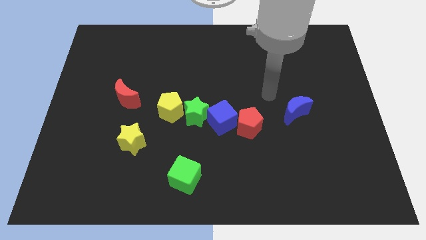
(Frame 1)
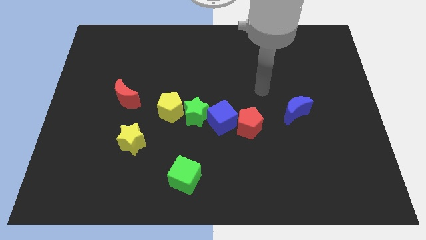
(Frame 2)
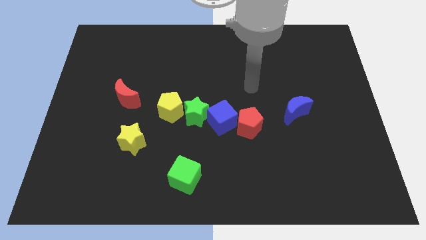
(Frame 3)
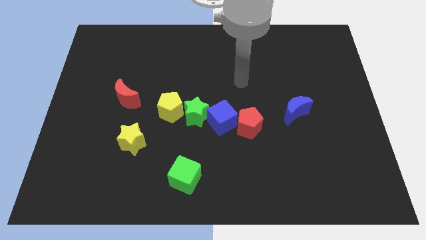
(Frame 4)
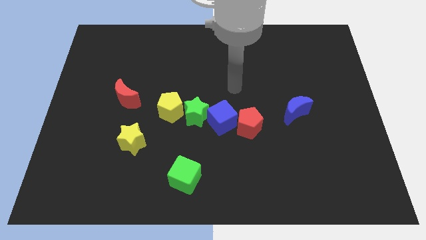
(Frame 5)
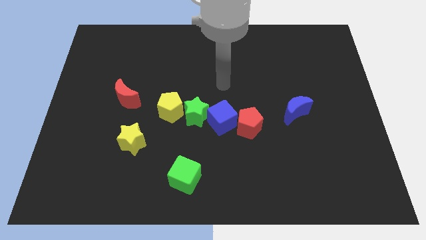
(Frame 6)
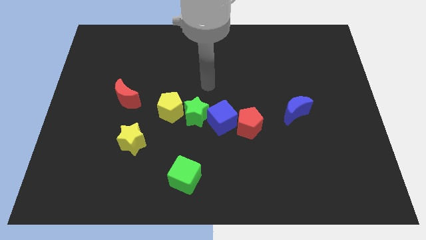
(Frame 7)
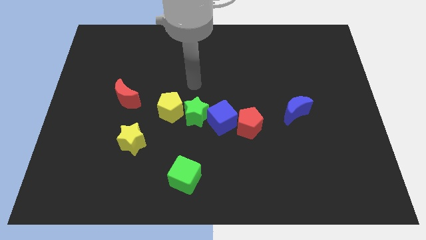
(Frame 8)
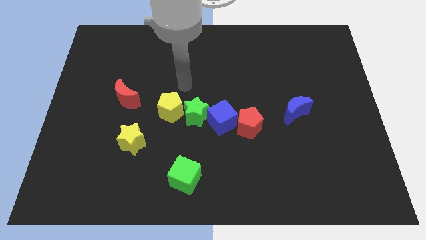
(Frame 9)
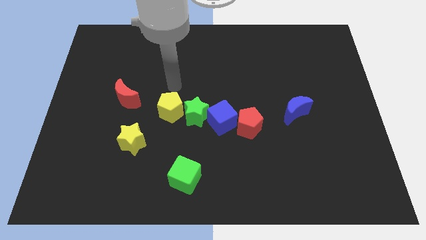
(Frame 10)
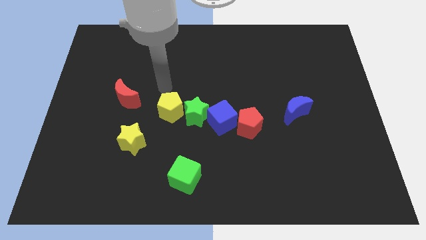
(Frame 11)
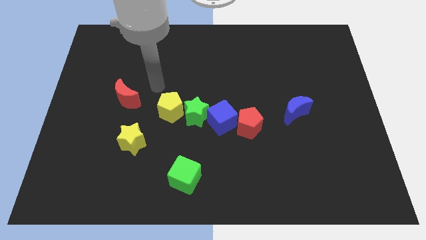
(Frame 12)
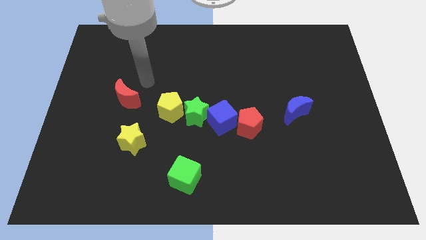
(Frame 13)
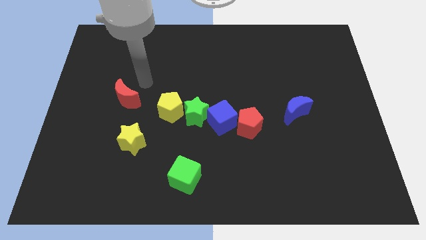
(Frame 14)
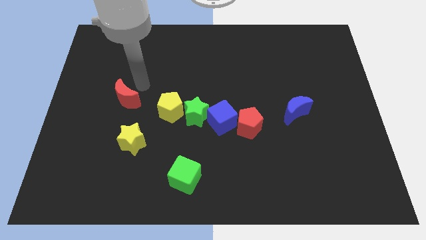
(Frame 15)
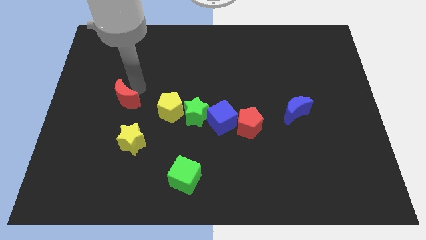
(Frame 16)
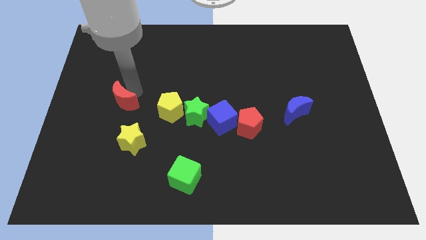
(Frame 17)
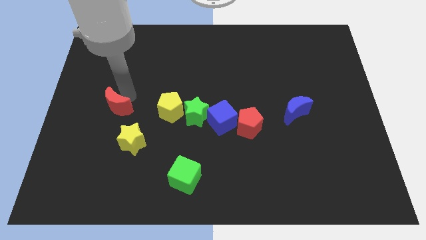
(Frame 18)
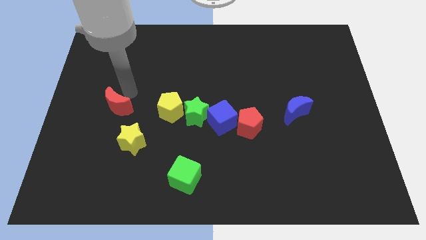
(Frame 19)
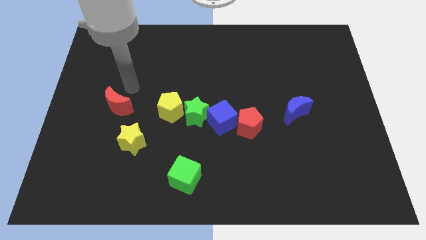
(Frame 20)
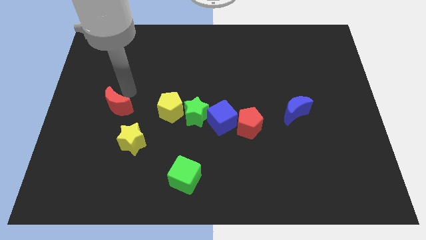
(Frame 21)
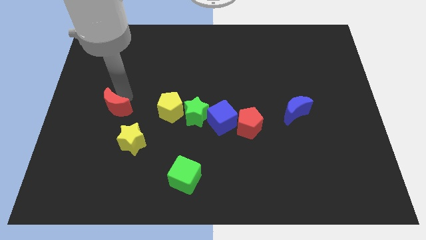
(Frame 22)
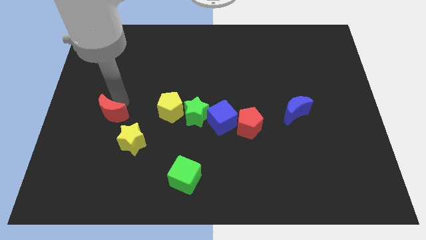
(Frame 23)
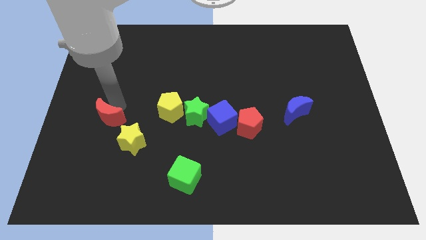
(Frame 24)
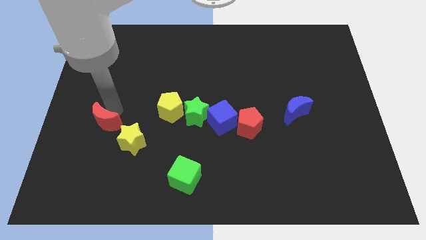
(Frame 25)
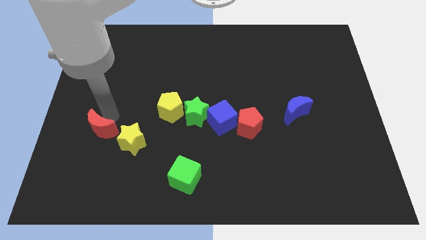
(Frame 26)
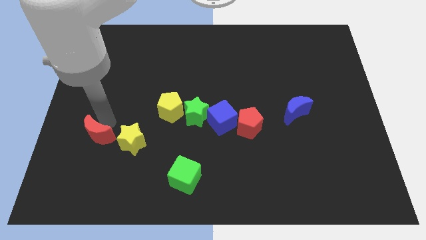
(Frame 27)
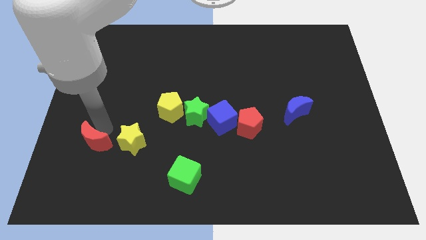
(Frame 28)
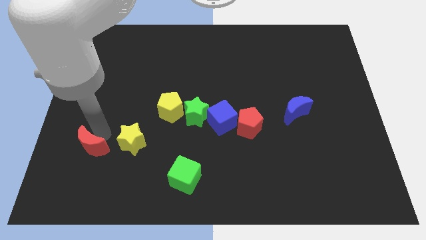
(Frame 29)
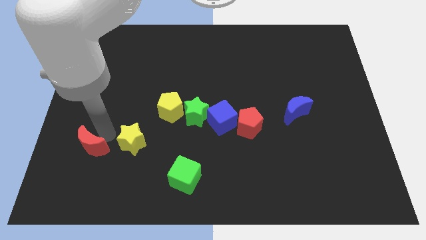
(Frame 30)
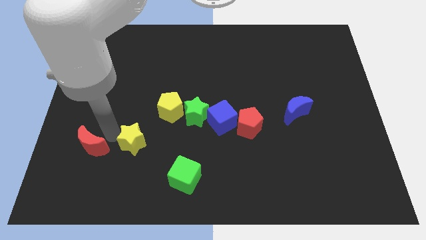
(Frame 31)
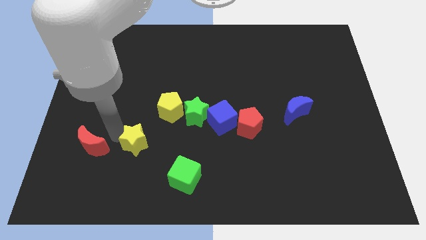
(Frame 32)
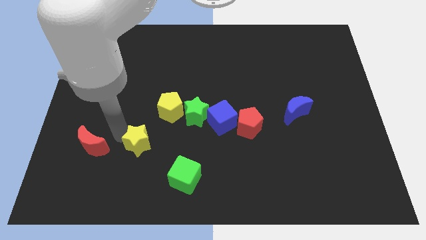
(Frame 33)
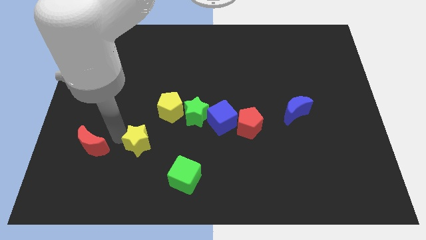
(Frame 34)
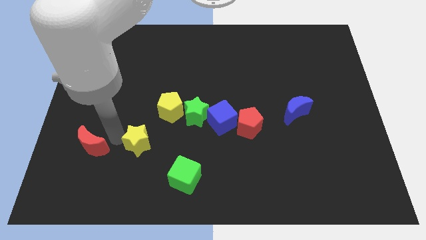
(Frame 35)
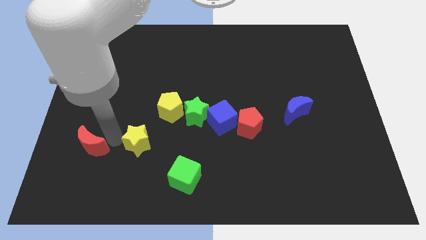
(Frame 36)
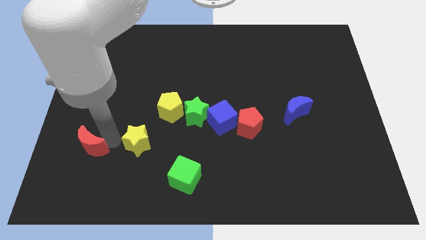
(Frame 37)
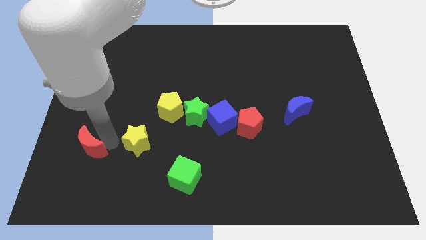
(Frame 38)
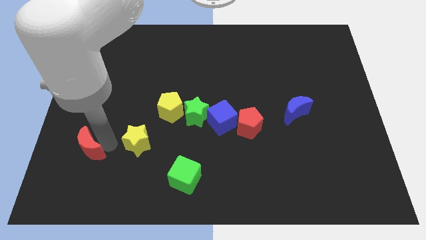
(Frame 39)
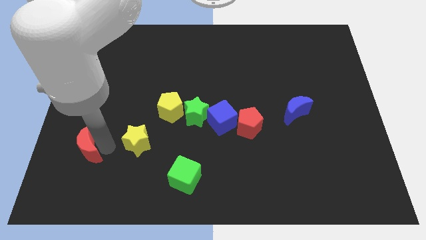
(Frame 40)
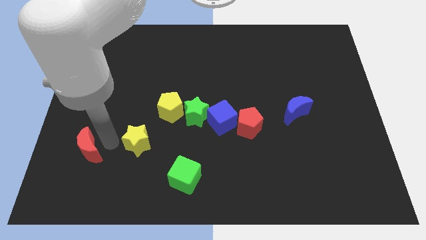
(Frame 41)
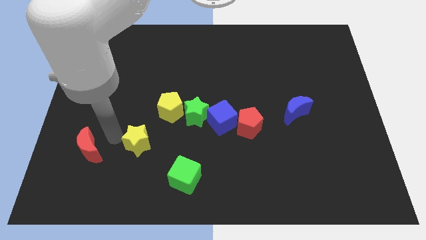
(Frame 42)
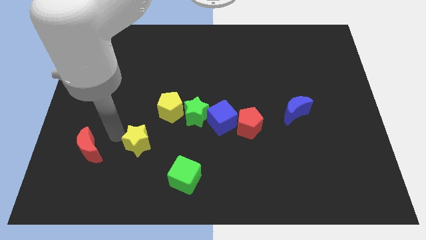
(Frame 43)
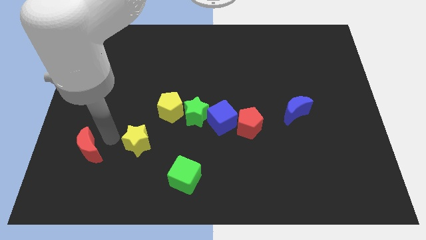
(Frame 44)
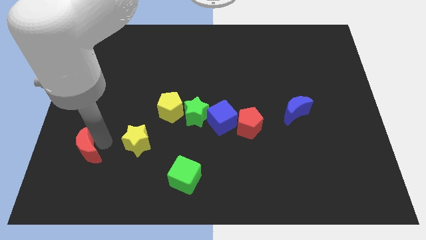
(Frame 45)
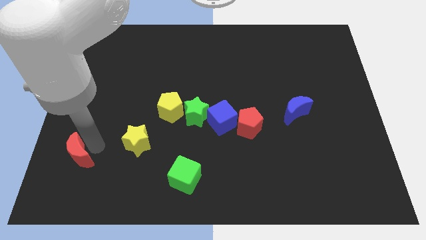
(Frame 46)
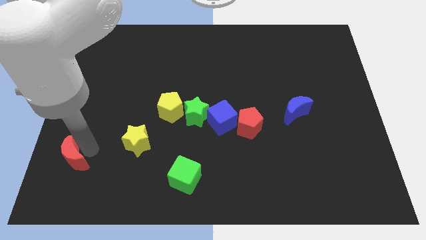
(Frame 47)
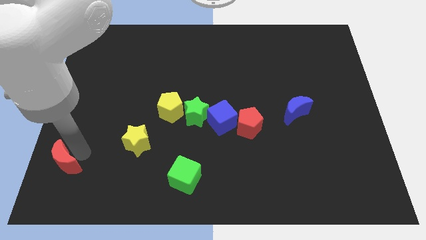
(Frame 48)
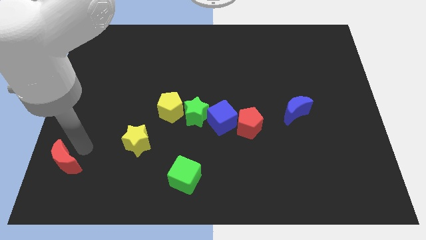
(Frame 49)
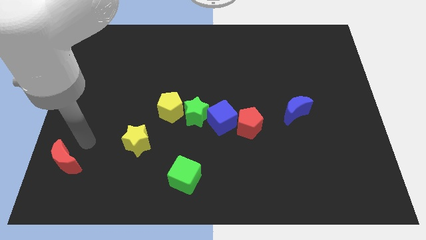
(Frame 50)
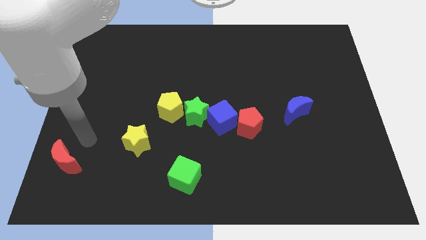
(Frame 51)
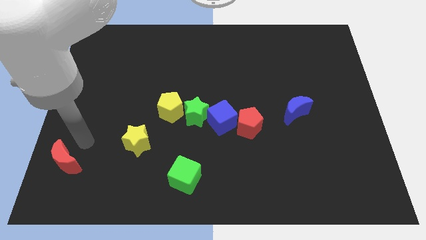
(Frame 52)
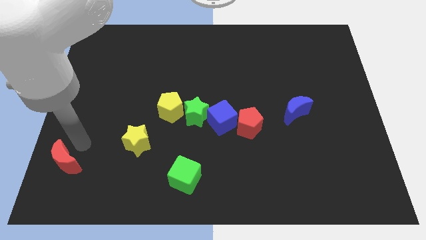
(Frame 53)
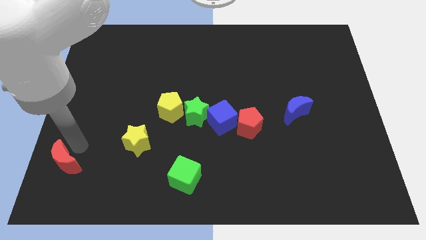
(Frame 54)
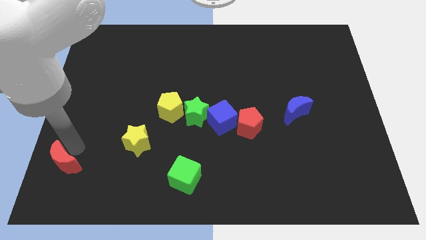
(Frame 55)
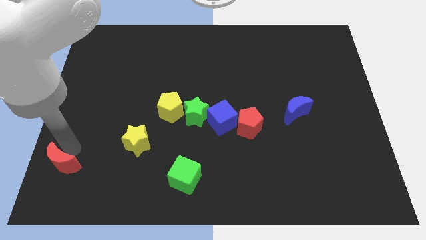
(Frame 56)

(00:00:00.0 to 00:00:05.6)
slide the red moon to the lower left corner

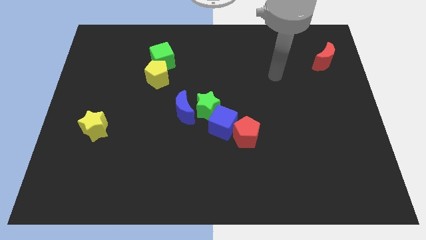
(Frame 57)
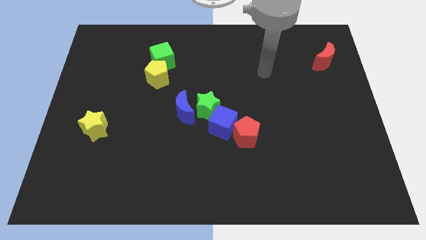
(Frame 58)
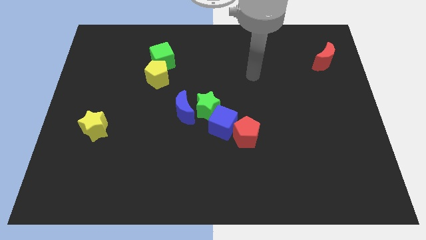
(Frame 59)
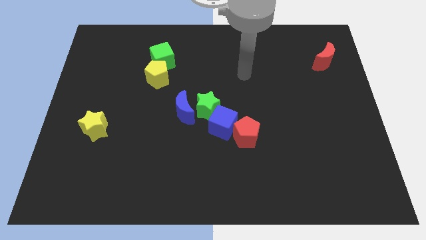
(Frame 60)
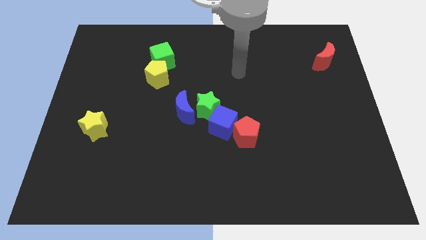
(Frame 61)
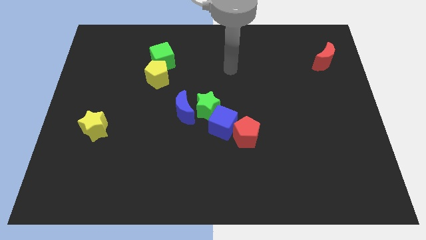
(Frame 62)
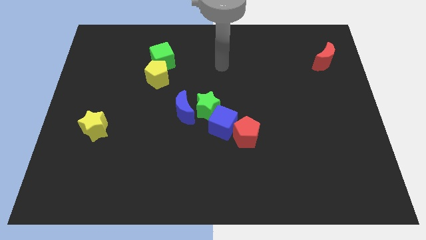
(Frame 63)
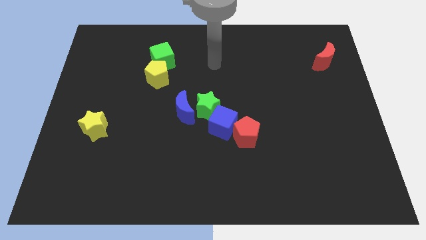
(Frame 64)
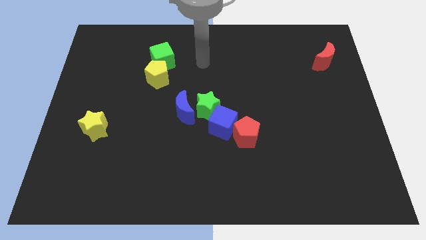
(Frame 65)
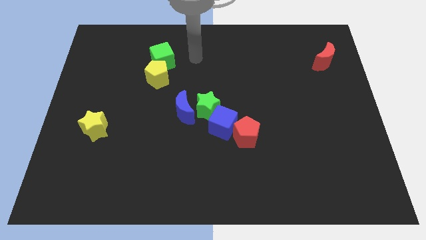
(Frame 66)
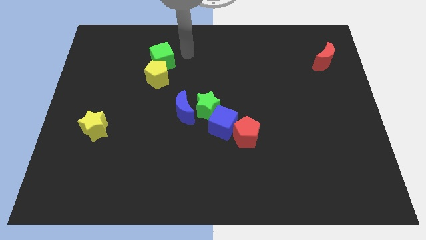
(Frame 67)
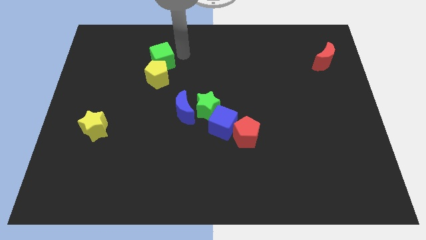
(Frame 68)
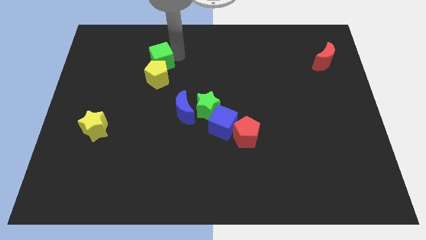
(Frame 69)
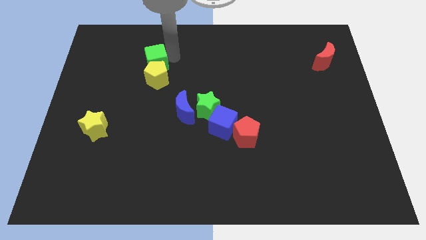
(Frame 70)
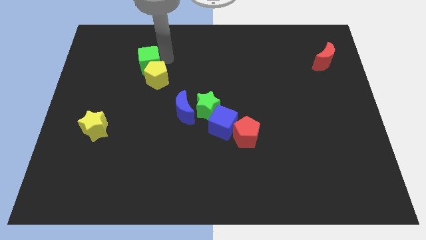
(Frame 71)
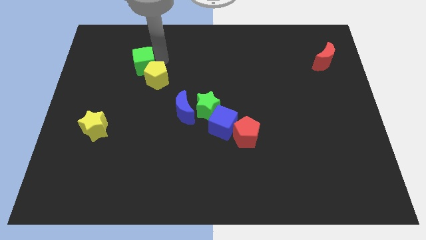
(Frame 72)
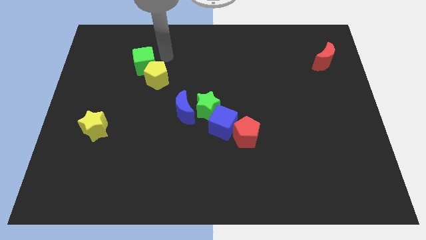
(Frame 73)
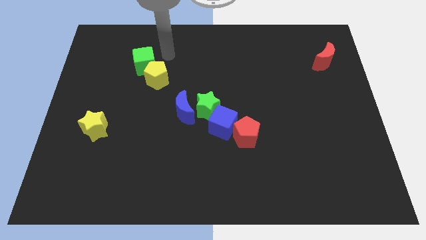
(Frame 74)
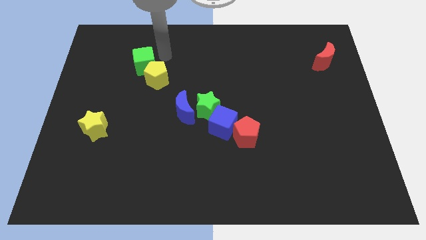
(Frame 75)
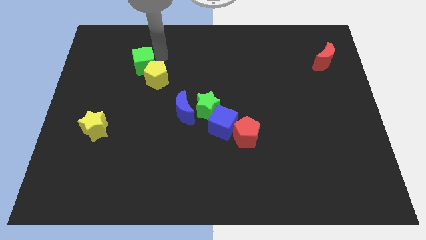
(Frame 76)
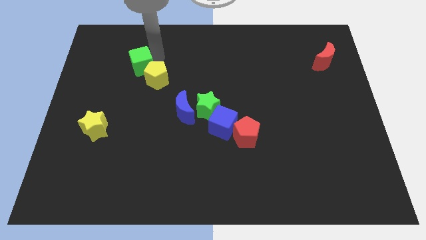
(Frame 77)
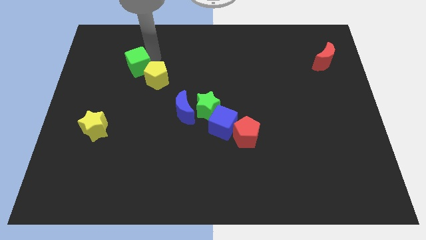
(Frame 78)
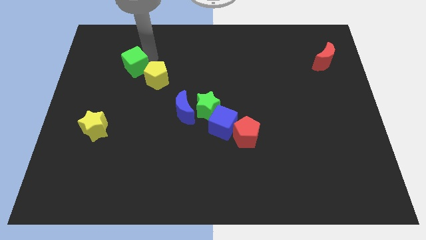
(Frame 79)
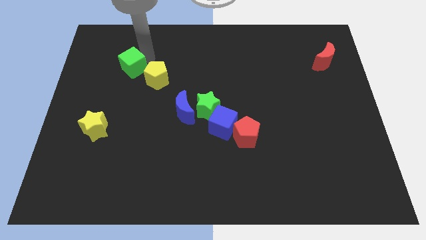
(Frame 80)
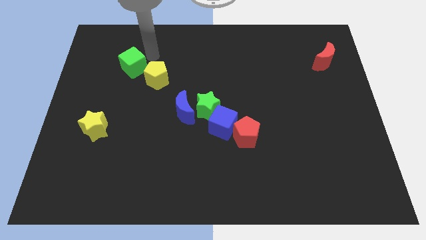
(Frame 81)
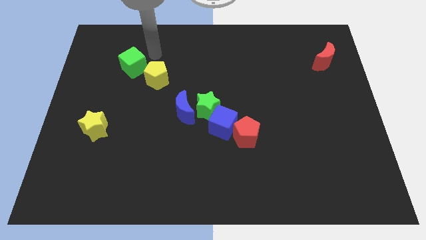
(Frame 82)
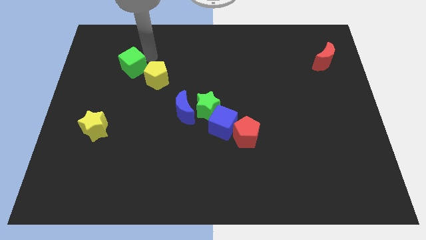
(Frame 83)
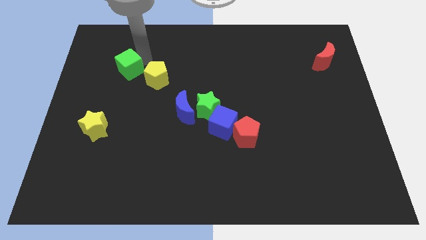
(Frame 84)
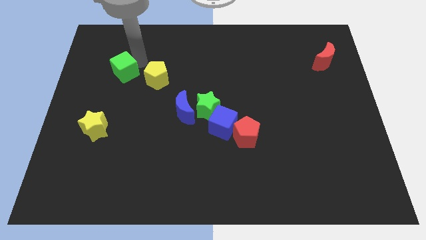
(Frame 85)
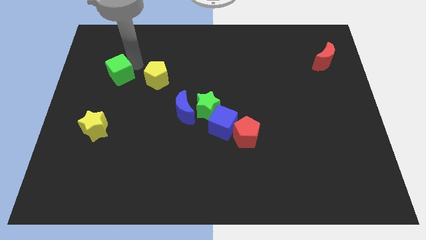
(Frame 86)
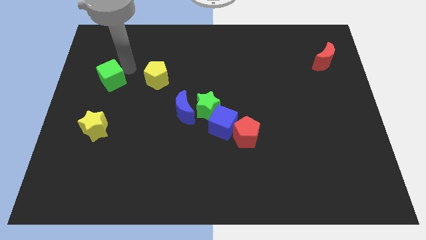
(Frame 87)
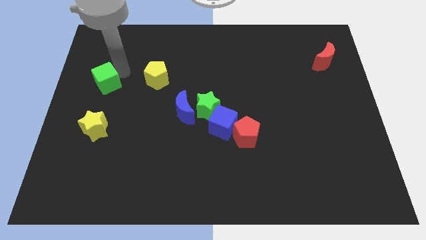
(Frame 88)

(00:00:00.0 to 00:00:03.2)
slide the green cube to the left side of the board
